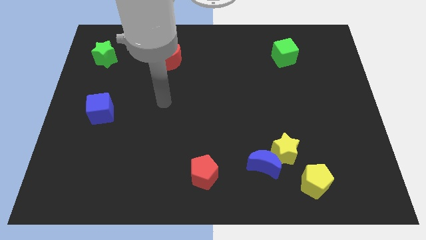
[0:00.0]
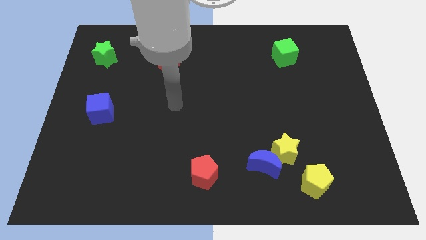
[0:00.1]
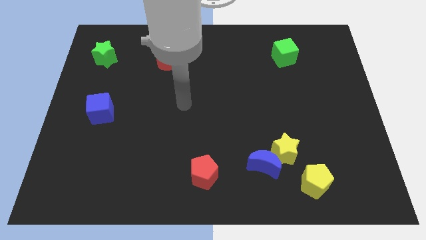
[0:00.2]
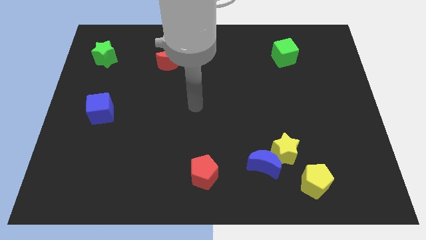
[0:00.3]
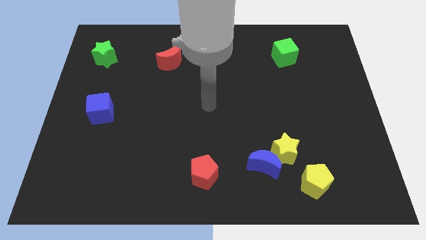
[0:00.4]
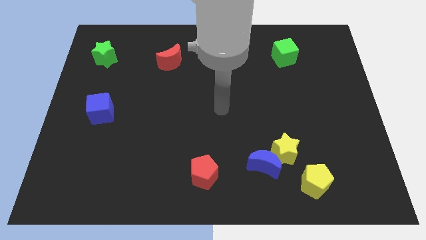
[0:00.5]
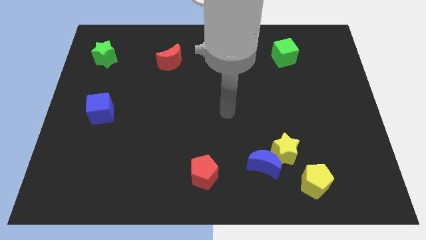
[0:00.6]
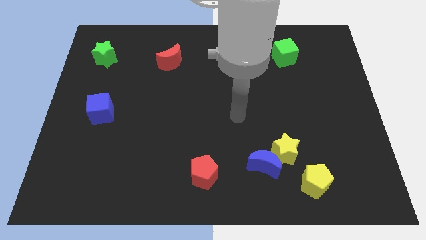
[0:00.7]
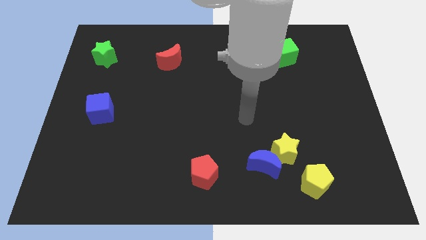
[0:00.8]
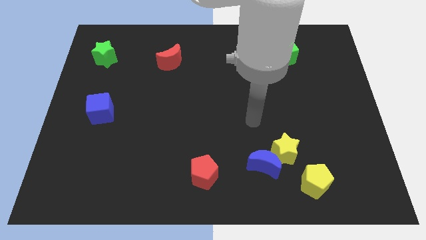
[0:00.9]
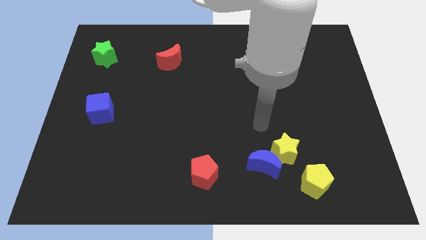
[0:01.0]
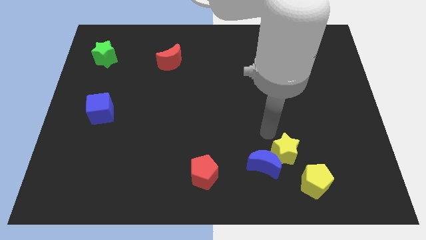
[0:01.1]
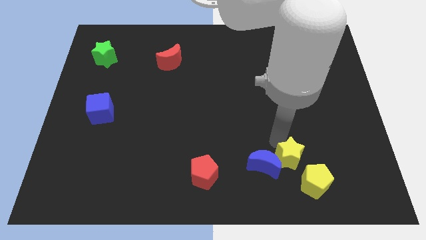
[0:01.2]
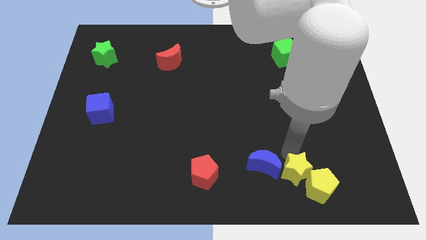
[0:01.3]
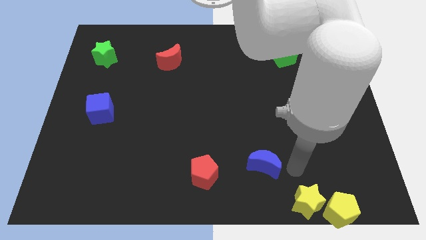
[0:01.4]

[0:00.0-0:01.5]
move the blue moon away from the yellow star

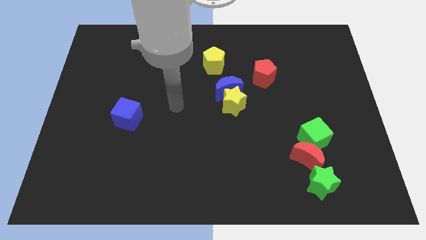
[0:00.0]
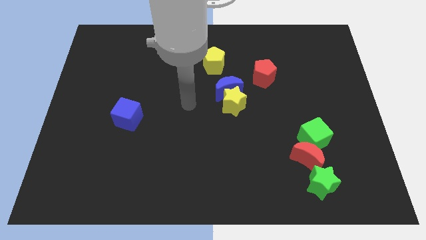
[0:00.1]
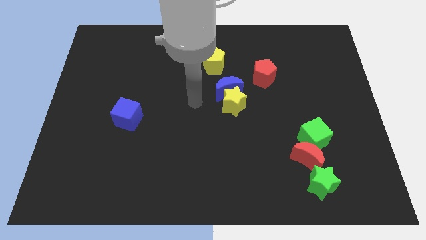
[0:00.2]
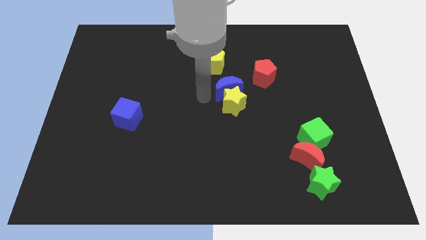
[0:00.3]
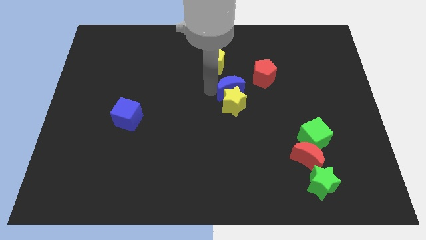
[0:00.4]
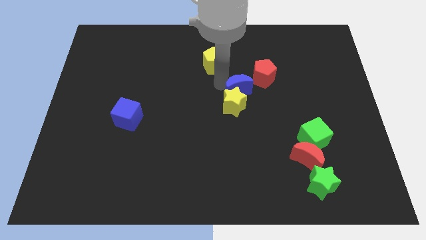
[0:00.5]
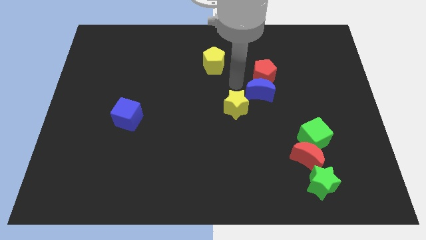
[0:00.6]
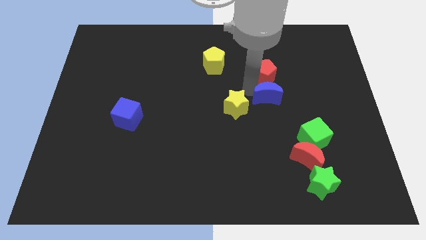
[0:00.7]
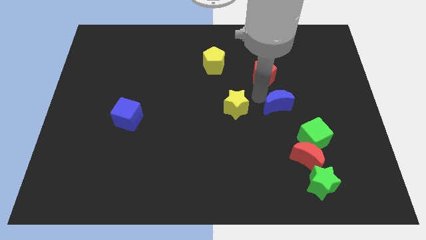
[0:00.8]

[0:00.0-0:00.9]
pull the yellow star apart from the blue moon

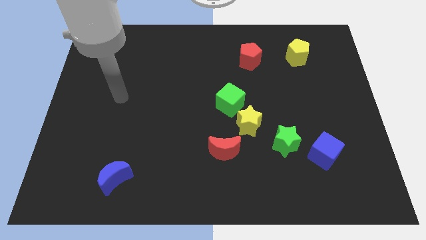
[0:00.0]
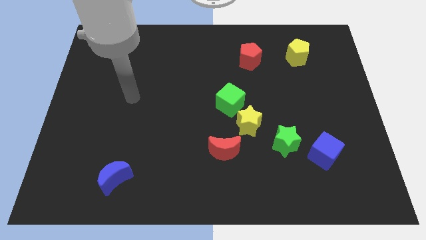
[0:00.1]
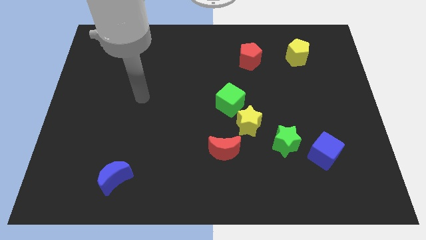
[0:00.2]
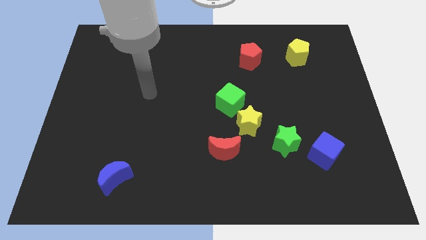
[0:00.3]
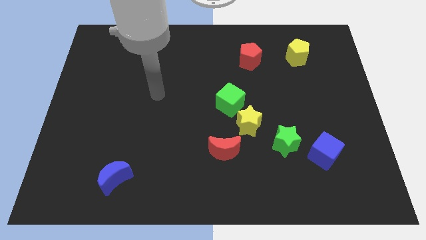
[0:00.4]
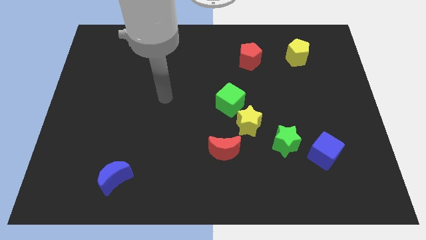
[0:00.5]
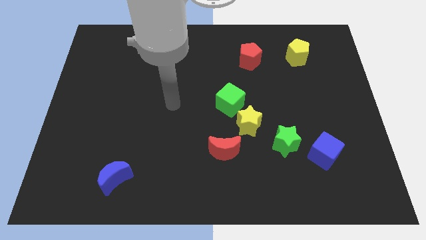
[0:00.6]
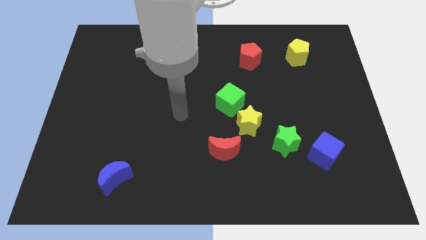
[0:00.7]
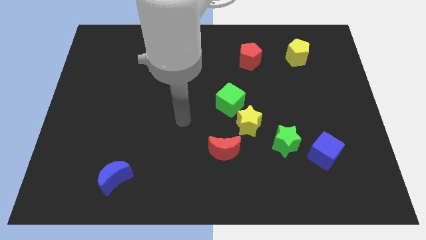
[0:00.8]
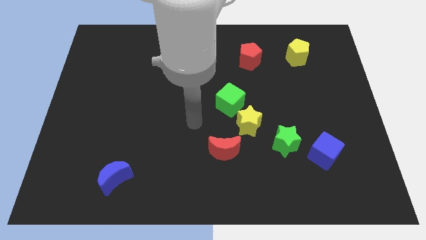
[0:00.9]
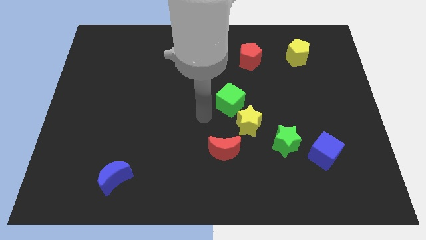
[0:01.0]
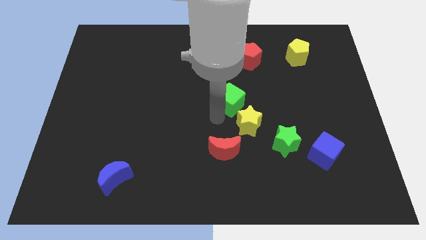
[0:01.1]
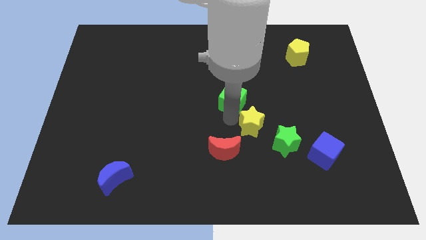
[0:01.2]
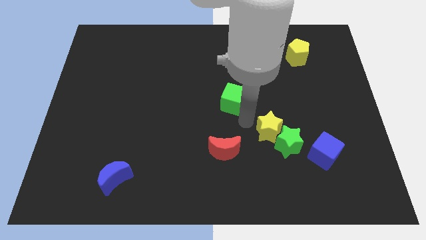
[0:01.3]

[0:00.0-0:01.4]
pull the green cube apart from the yellow star

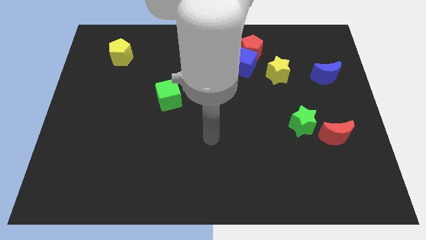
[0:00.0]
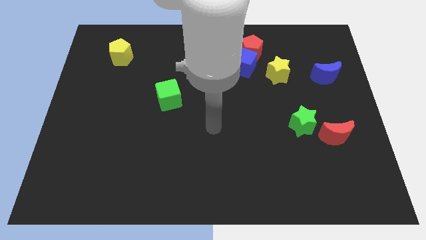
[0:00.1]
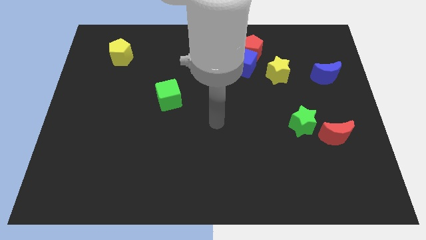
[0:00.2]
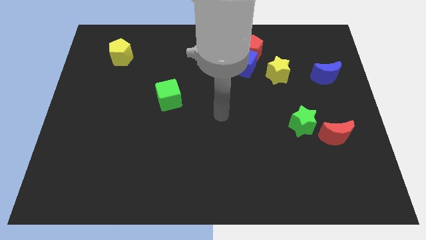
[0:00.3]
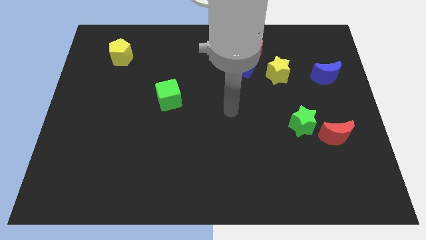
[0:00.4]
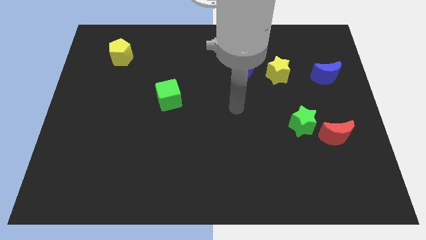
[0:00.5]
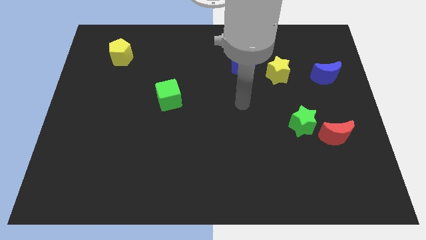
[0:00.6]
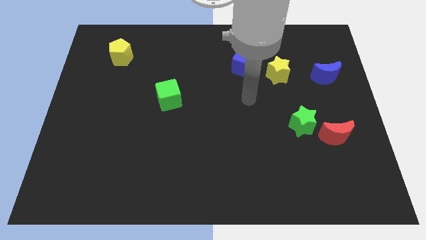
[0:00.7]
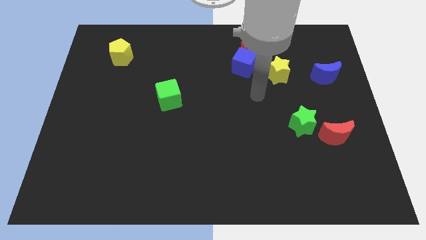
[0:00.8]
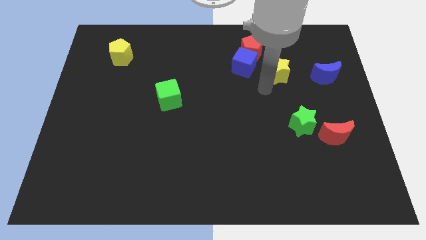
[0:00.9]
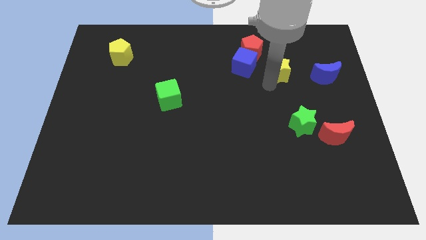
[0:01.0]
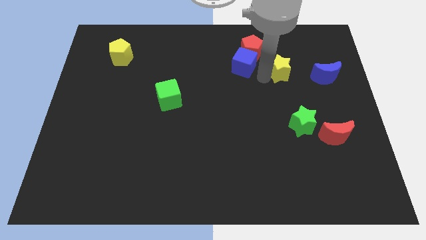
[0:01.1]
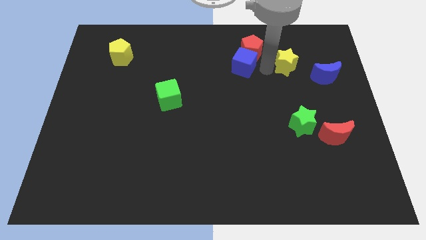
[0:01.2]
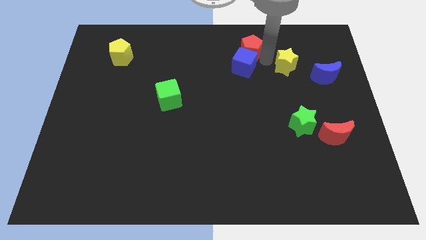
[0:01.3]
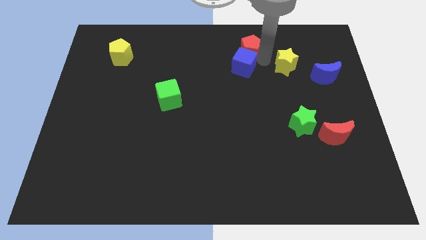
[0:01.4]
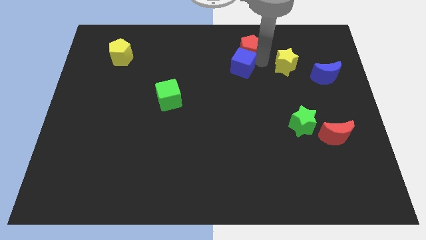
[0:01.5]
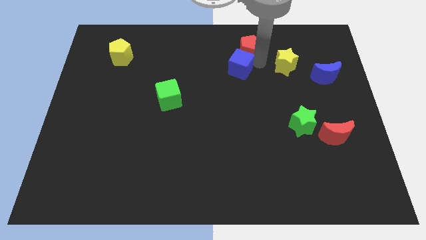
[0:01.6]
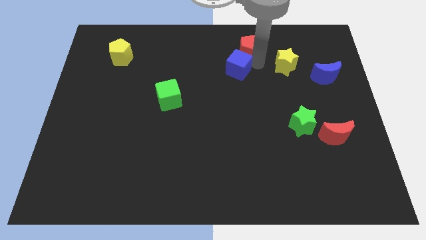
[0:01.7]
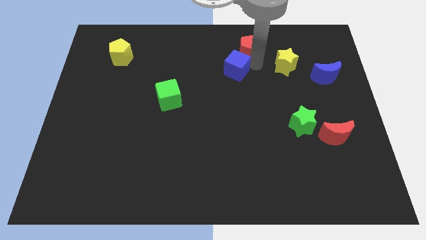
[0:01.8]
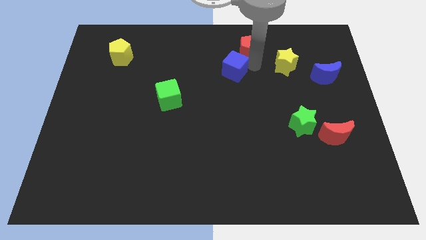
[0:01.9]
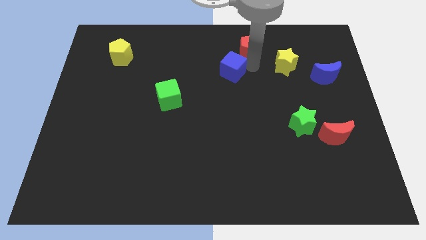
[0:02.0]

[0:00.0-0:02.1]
separate the blue cube from the red pentagon and yellow star

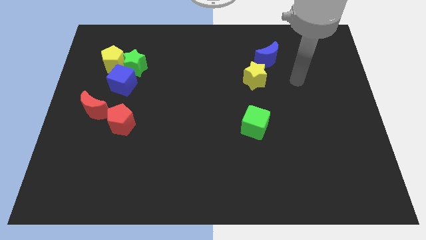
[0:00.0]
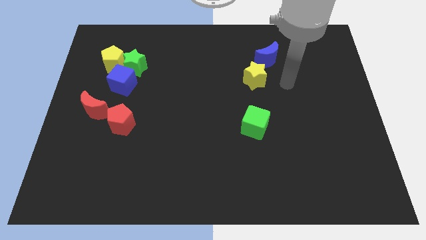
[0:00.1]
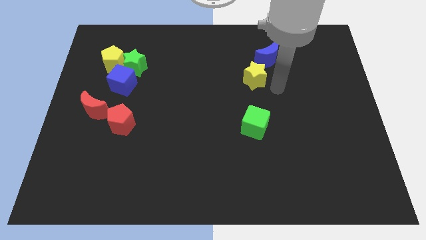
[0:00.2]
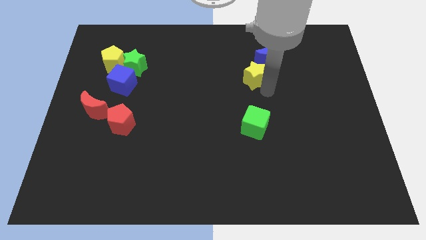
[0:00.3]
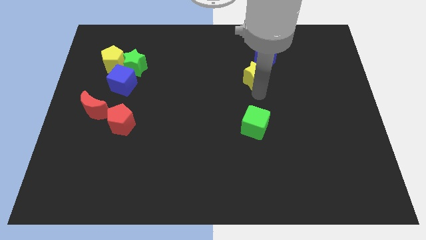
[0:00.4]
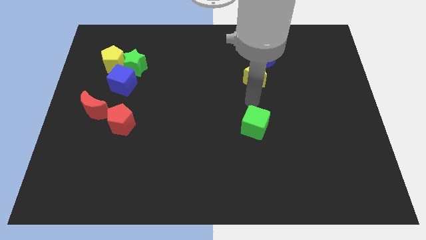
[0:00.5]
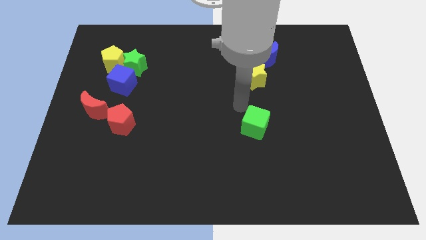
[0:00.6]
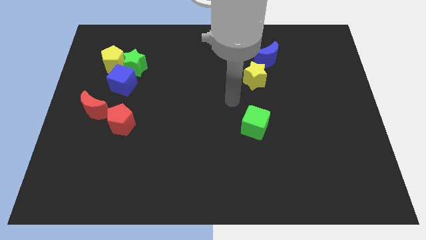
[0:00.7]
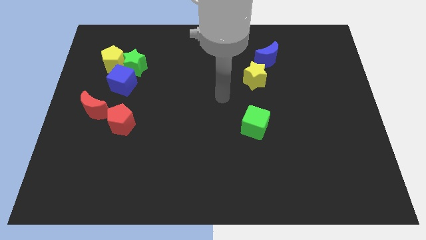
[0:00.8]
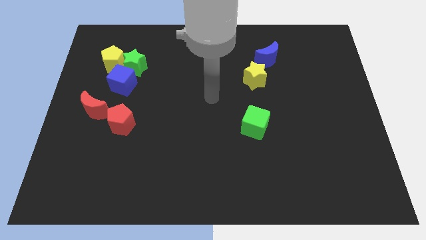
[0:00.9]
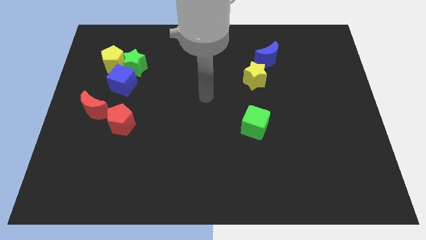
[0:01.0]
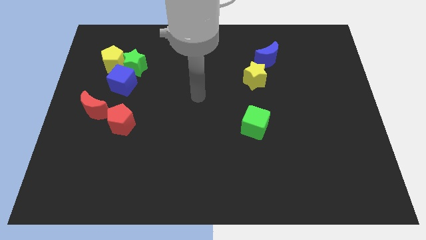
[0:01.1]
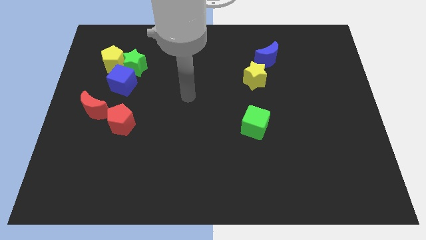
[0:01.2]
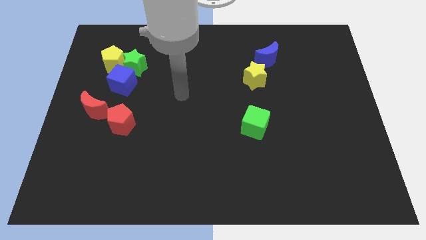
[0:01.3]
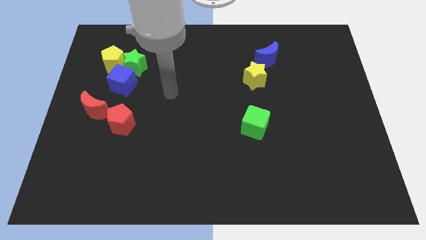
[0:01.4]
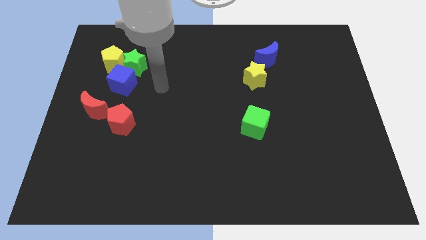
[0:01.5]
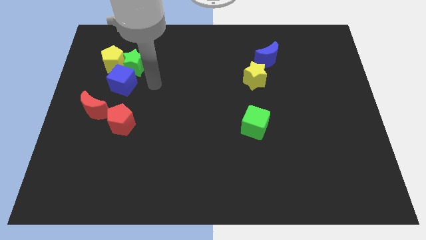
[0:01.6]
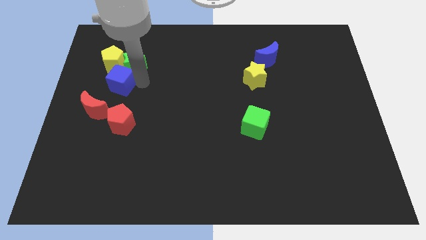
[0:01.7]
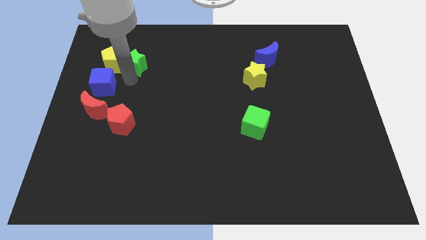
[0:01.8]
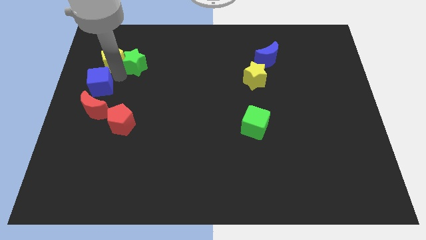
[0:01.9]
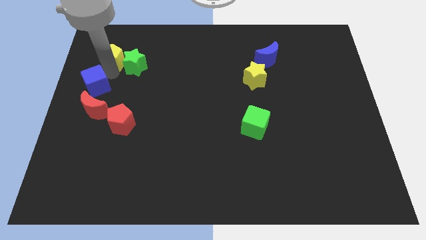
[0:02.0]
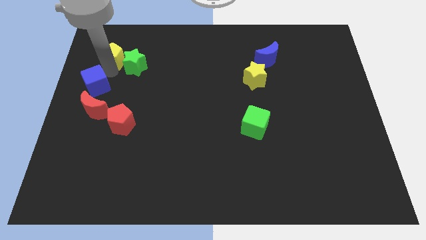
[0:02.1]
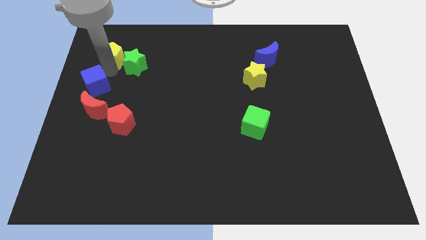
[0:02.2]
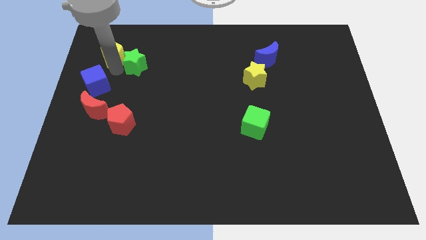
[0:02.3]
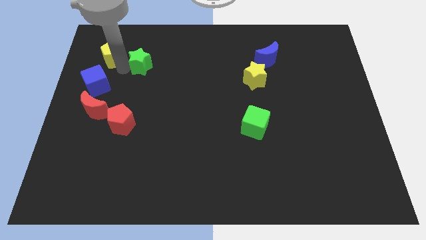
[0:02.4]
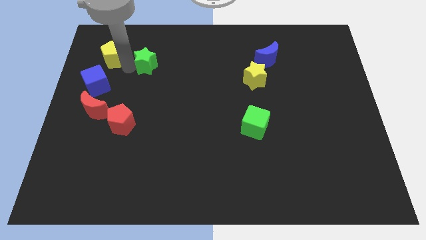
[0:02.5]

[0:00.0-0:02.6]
separate the green star from the yellow pentagon and blue cube

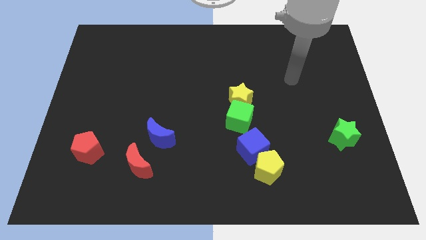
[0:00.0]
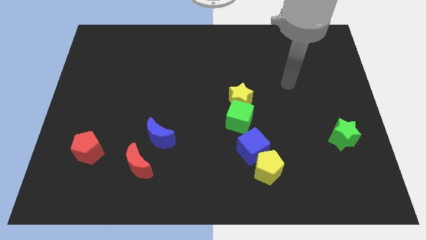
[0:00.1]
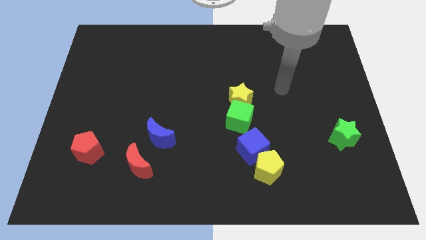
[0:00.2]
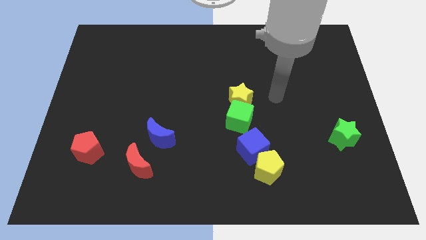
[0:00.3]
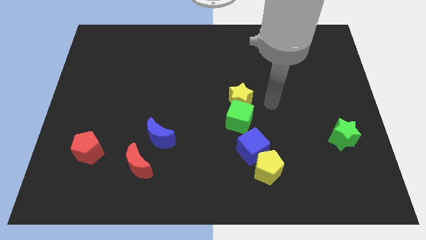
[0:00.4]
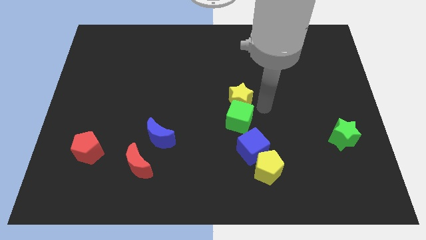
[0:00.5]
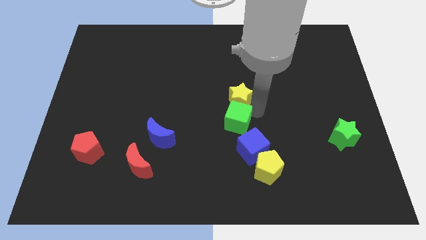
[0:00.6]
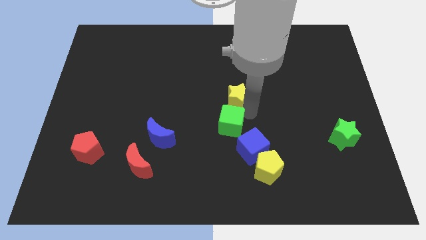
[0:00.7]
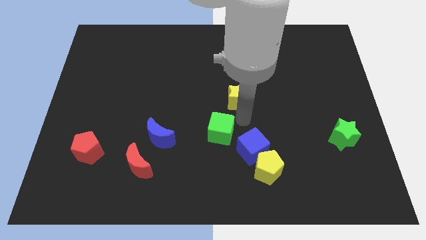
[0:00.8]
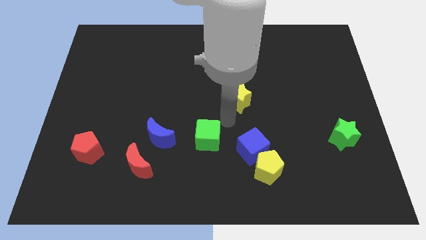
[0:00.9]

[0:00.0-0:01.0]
pull the yellow star apart from the green cube
